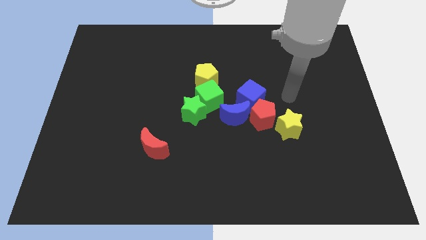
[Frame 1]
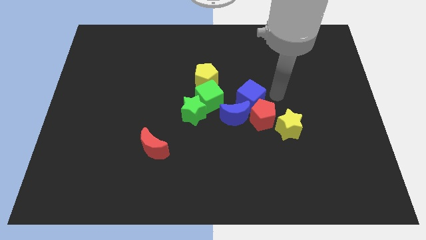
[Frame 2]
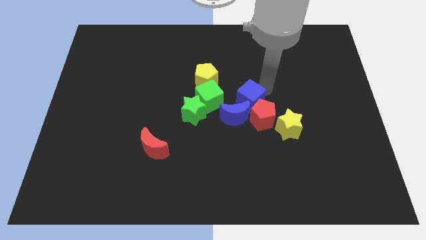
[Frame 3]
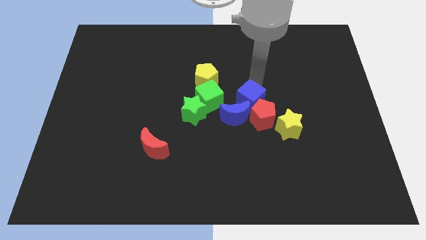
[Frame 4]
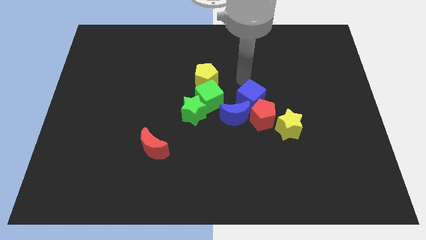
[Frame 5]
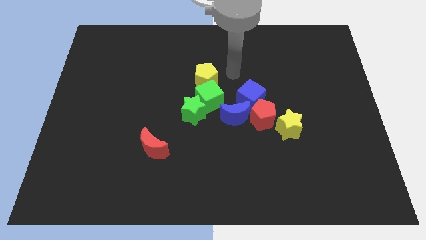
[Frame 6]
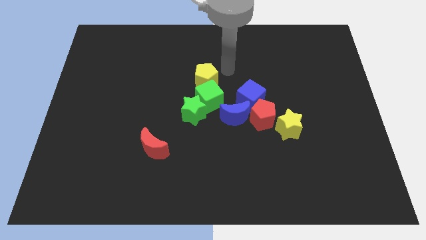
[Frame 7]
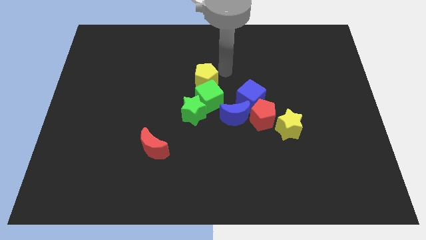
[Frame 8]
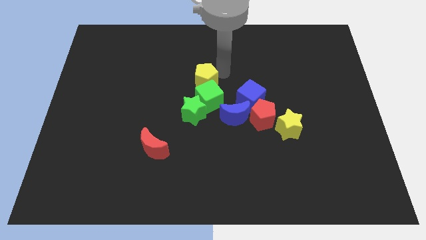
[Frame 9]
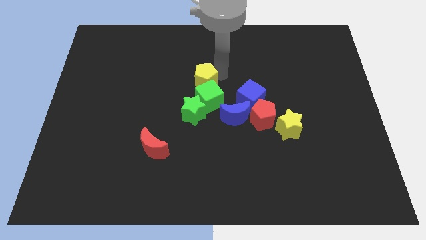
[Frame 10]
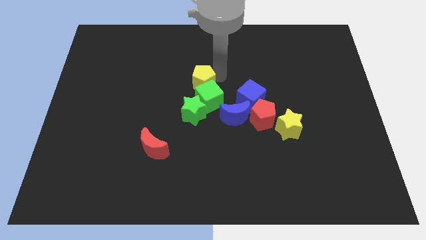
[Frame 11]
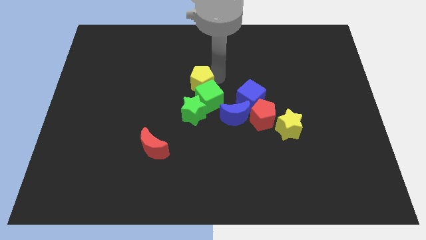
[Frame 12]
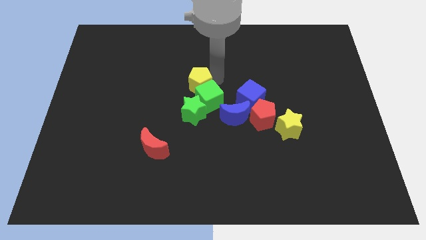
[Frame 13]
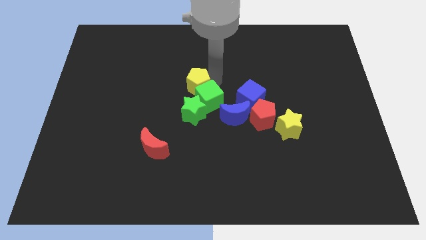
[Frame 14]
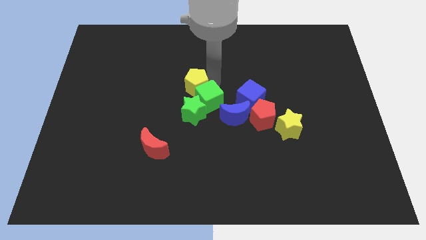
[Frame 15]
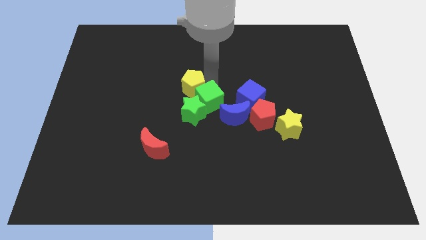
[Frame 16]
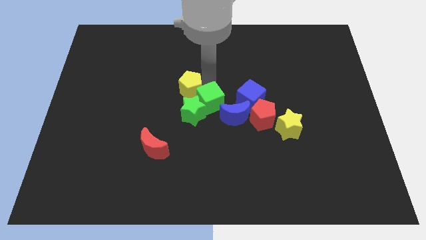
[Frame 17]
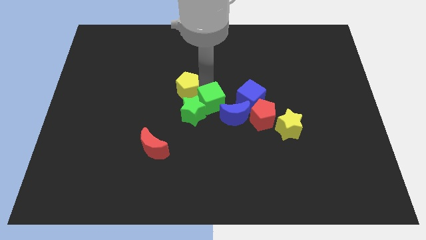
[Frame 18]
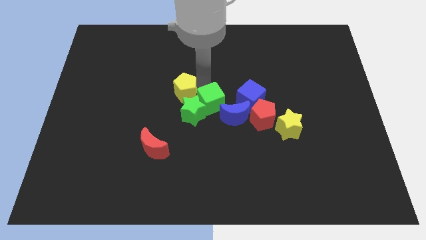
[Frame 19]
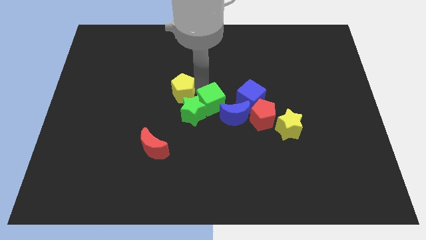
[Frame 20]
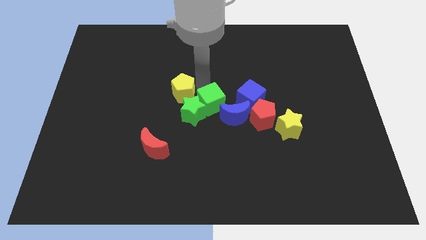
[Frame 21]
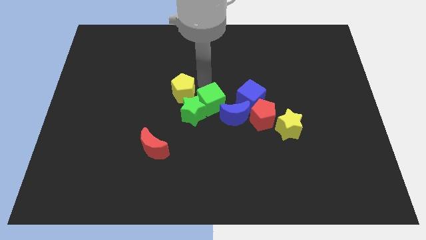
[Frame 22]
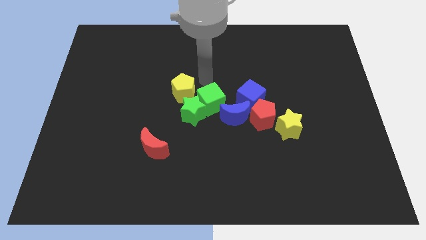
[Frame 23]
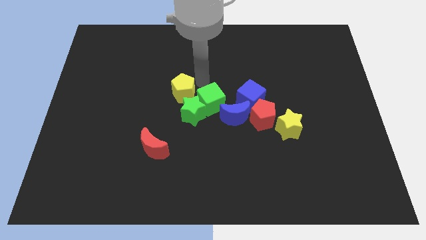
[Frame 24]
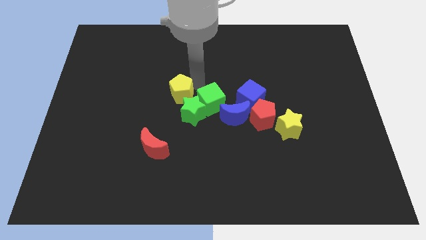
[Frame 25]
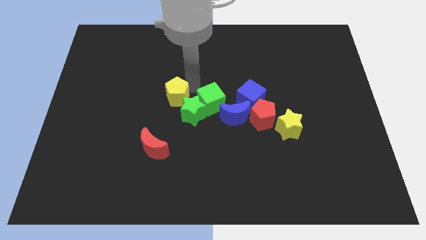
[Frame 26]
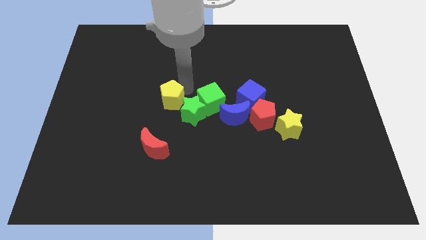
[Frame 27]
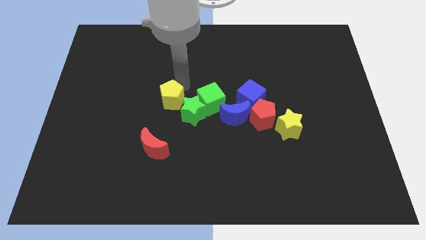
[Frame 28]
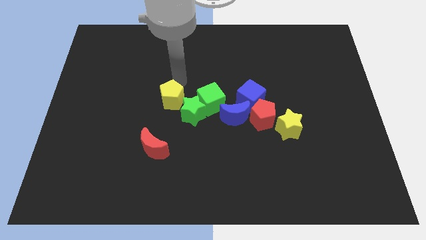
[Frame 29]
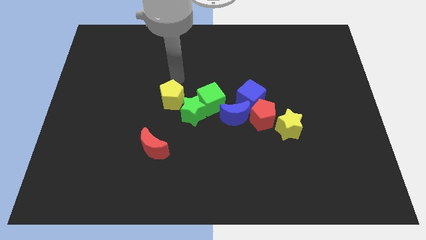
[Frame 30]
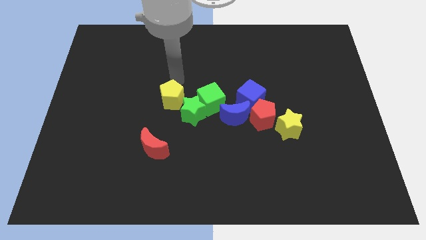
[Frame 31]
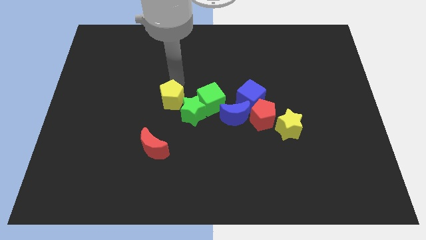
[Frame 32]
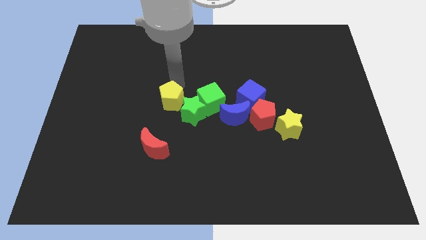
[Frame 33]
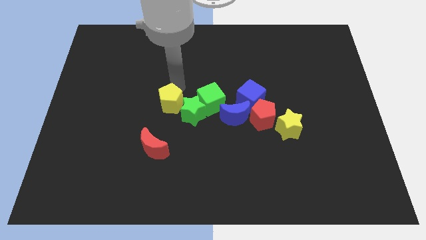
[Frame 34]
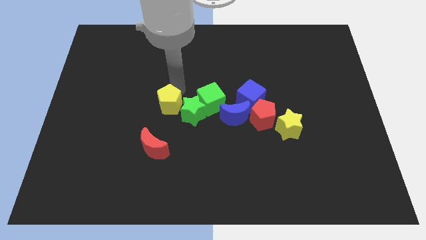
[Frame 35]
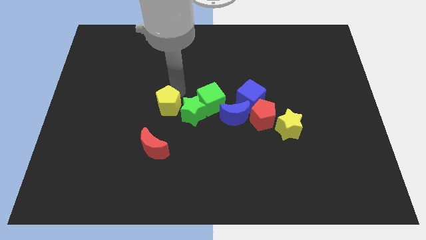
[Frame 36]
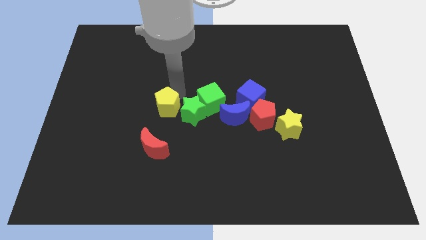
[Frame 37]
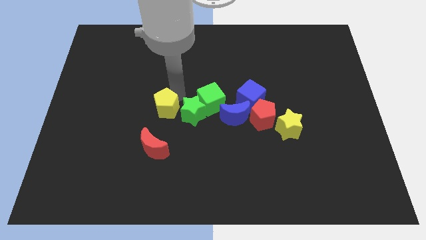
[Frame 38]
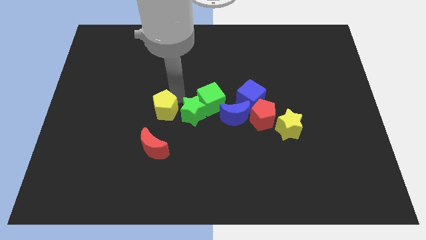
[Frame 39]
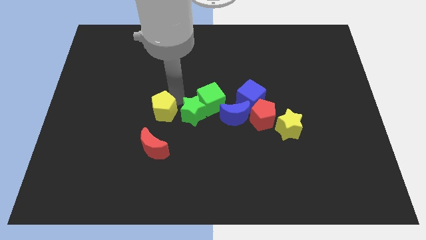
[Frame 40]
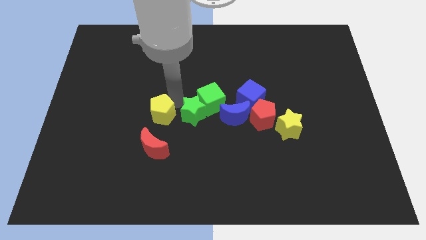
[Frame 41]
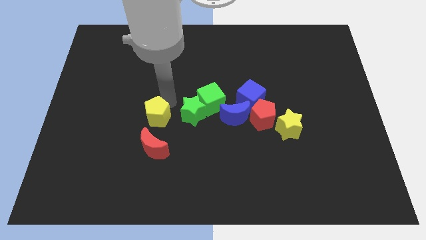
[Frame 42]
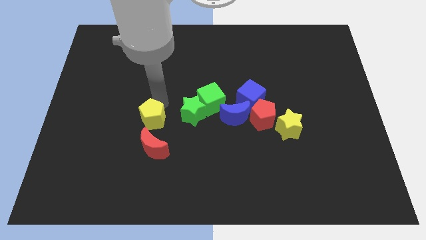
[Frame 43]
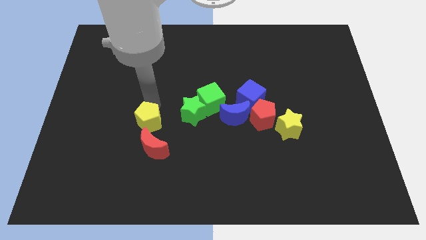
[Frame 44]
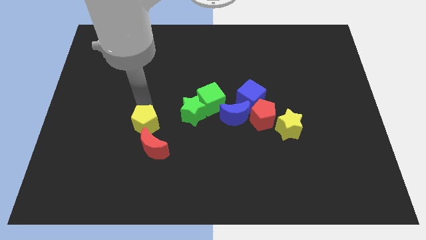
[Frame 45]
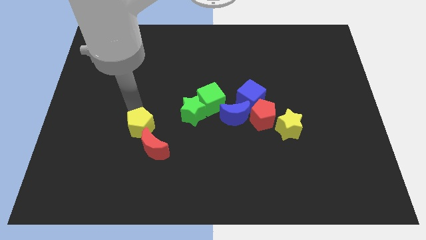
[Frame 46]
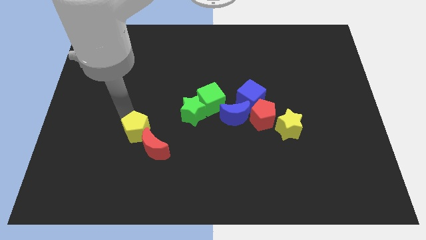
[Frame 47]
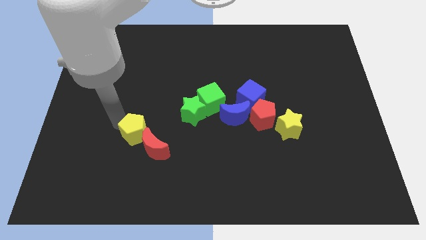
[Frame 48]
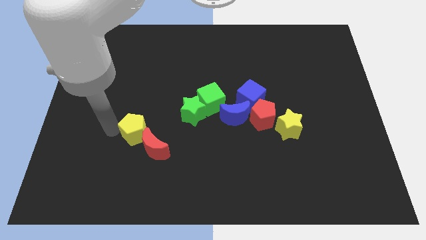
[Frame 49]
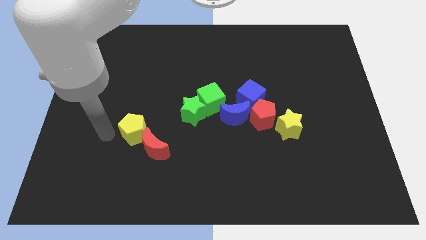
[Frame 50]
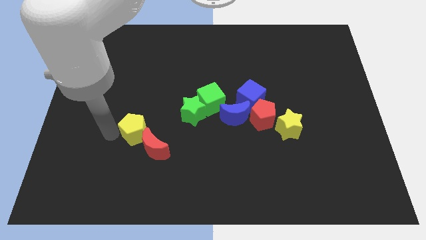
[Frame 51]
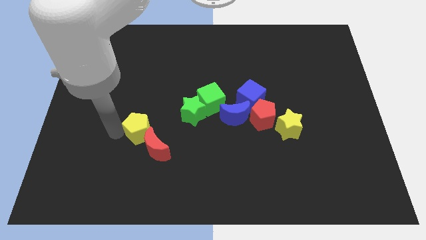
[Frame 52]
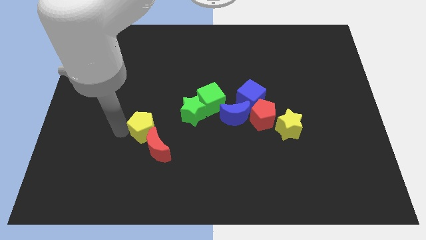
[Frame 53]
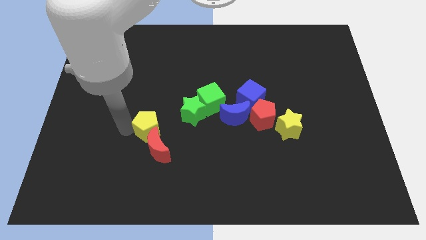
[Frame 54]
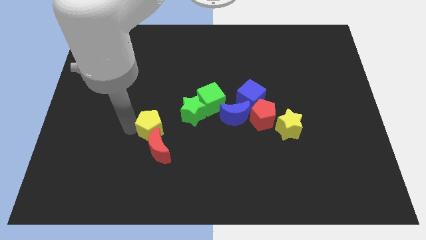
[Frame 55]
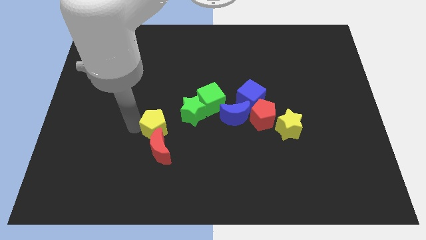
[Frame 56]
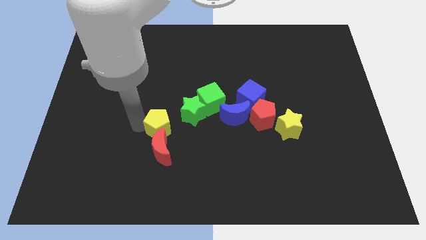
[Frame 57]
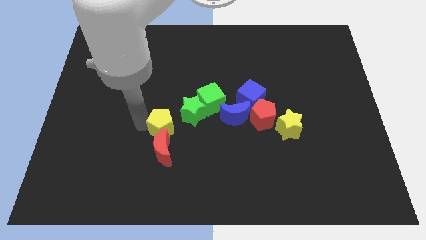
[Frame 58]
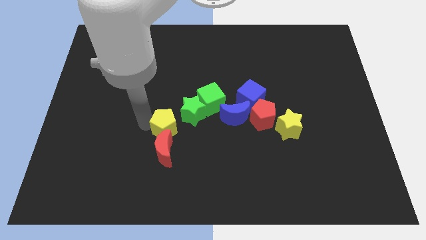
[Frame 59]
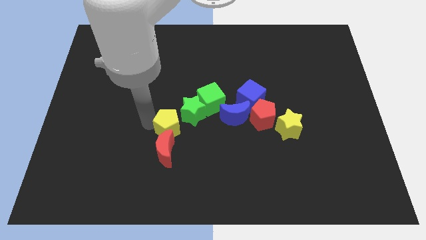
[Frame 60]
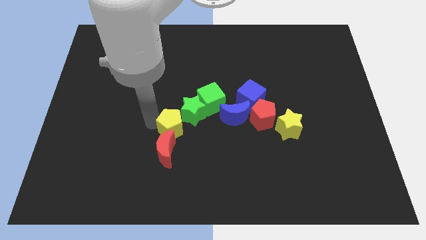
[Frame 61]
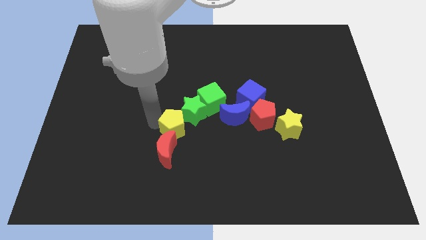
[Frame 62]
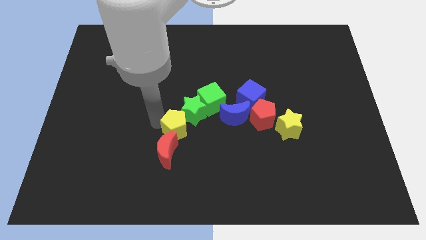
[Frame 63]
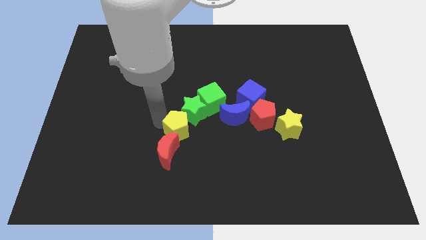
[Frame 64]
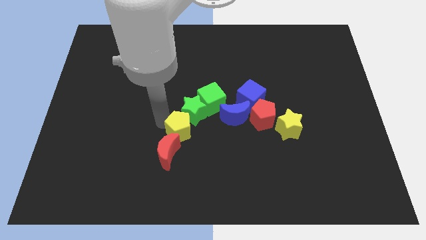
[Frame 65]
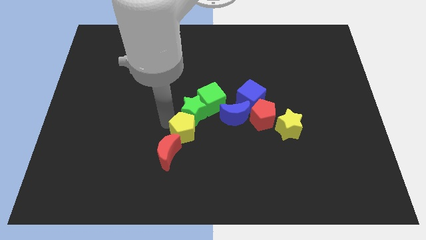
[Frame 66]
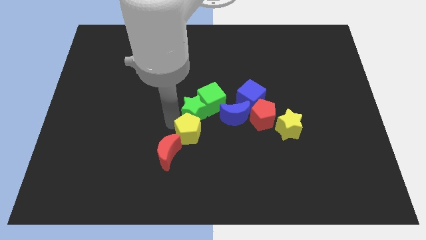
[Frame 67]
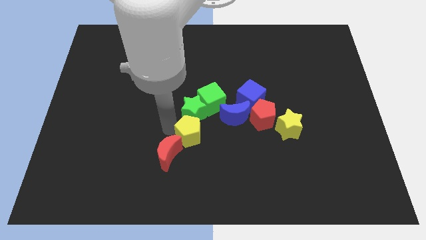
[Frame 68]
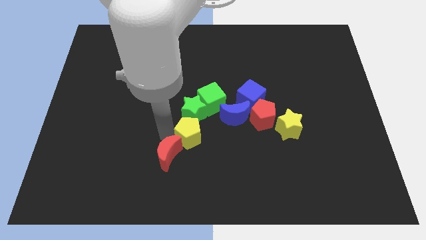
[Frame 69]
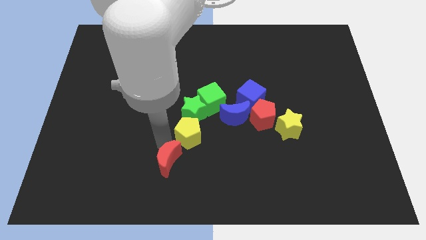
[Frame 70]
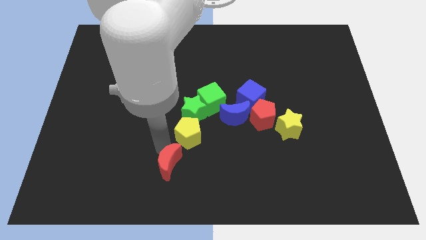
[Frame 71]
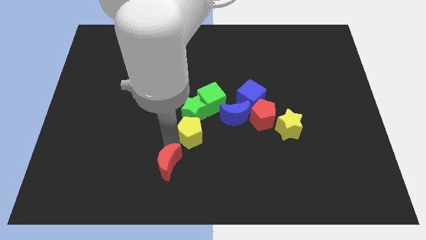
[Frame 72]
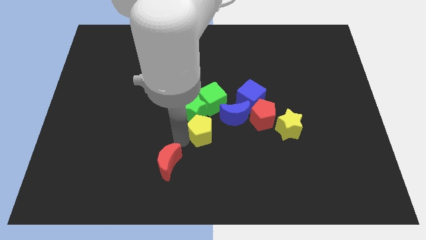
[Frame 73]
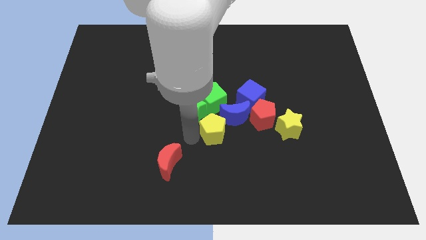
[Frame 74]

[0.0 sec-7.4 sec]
move the yellow pentagon diagonally down and to the left of the blue cube
